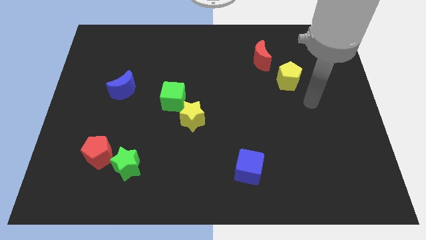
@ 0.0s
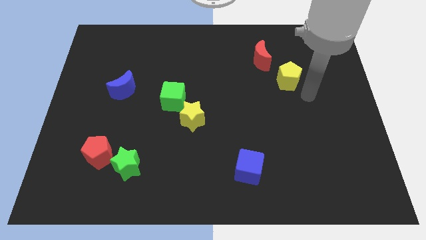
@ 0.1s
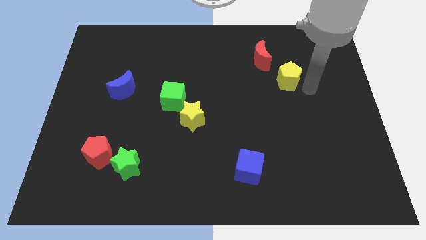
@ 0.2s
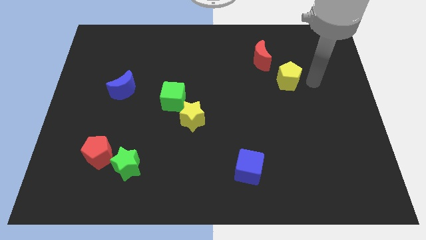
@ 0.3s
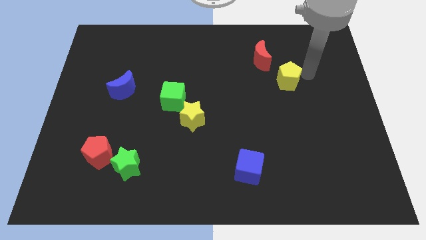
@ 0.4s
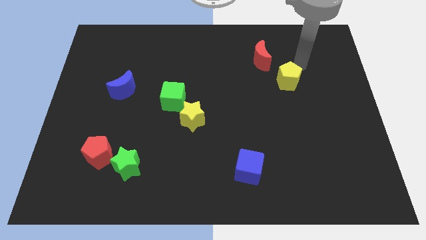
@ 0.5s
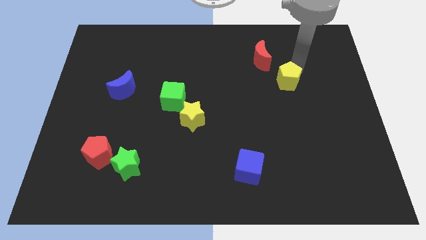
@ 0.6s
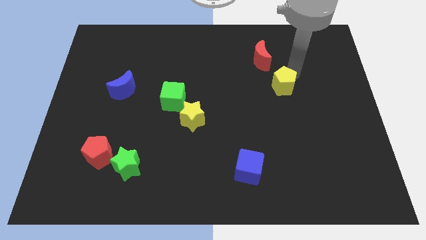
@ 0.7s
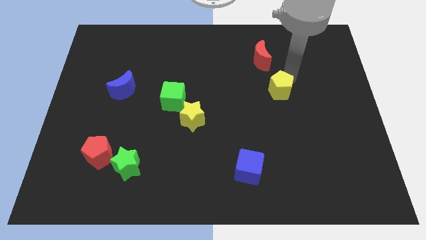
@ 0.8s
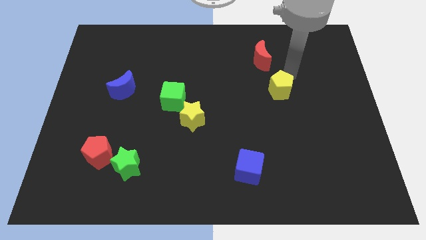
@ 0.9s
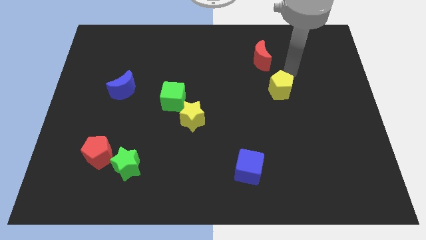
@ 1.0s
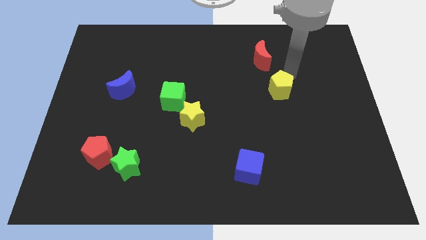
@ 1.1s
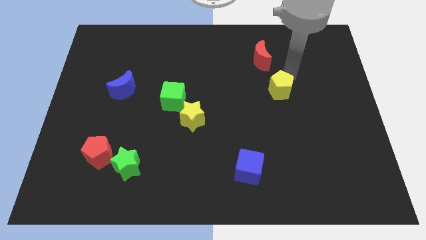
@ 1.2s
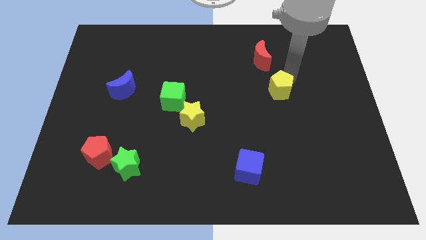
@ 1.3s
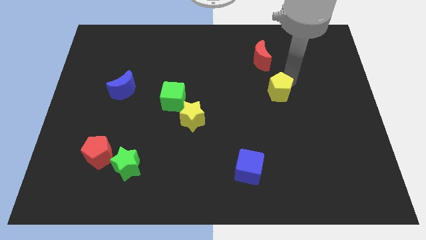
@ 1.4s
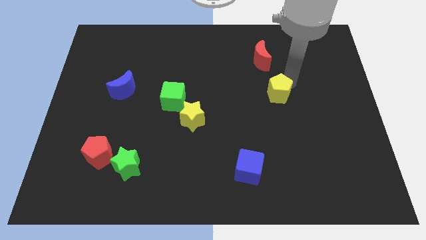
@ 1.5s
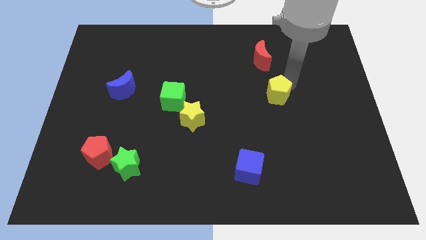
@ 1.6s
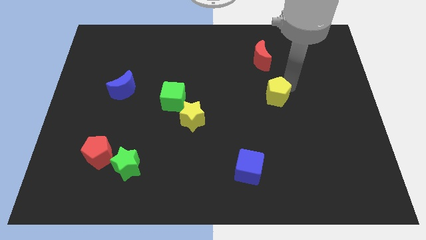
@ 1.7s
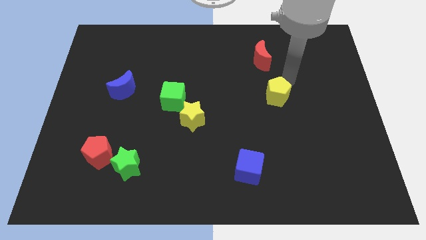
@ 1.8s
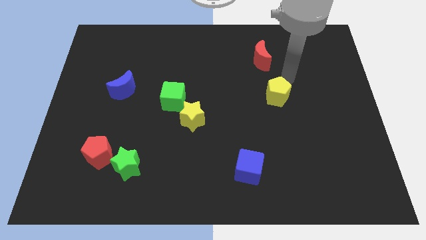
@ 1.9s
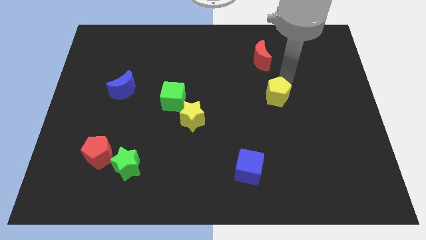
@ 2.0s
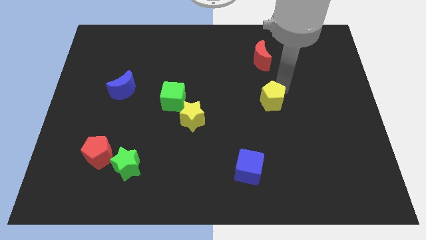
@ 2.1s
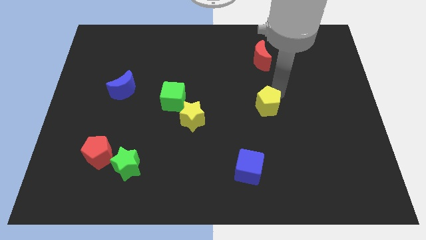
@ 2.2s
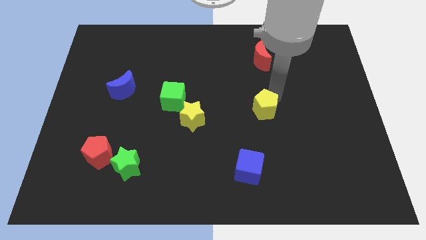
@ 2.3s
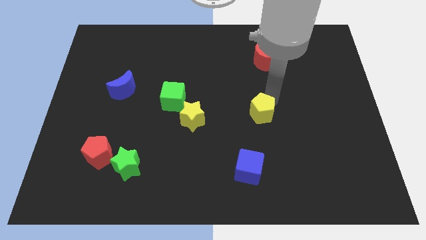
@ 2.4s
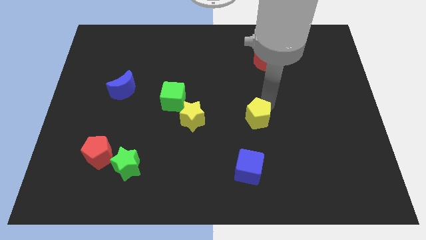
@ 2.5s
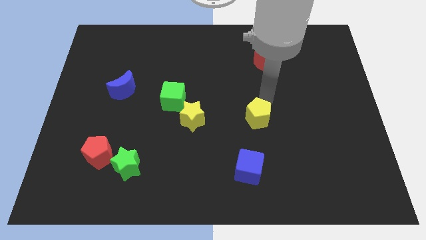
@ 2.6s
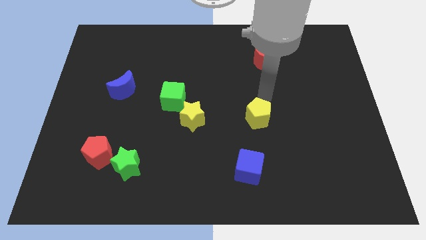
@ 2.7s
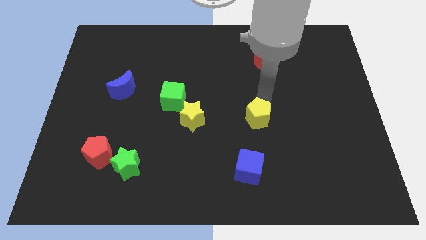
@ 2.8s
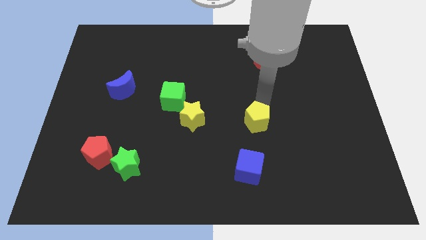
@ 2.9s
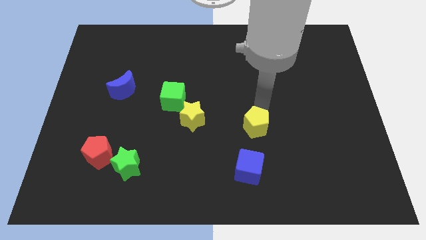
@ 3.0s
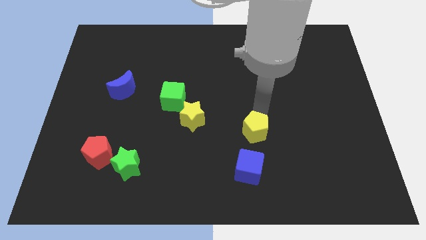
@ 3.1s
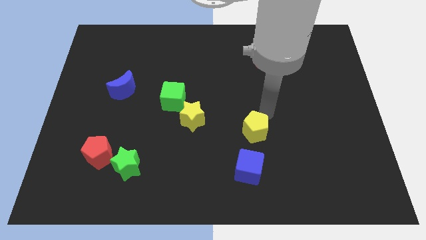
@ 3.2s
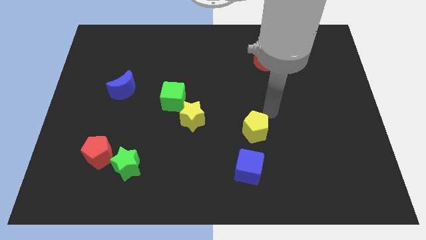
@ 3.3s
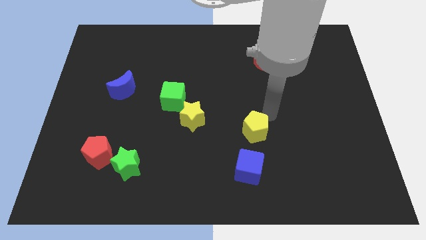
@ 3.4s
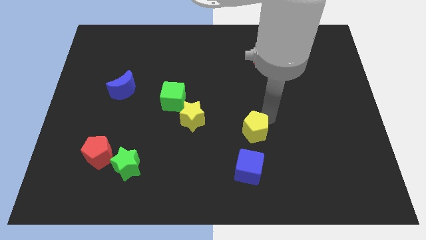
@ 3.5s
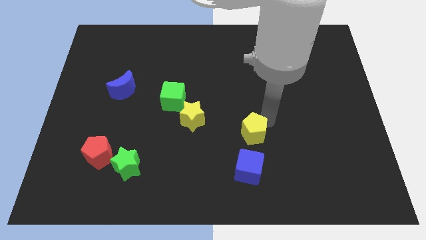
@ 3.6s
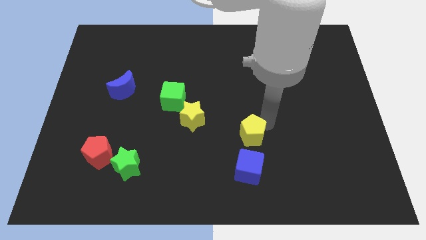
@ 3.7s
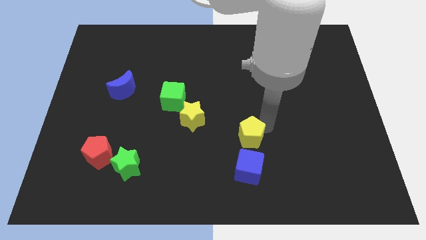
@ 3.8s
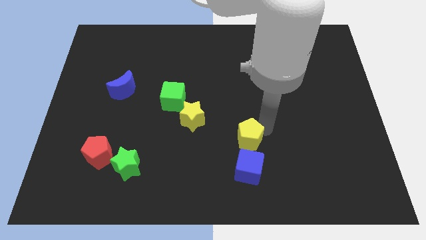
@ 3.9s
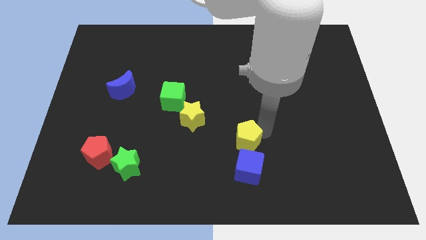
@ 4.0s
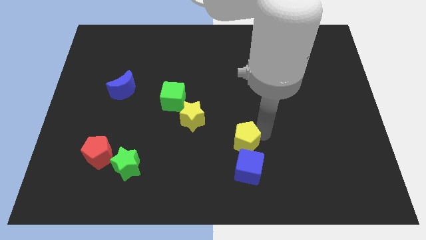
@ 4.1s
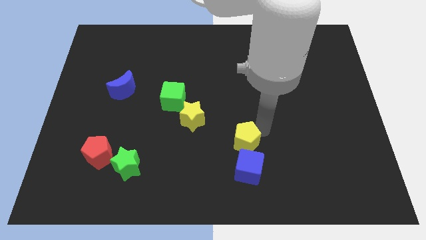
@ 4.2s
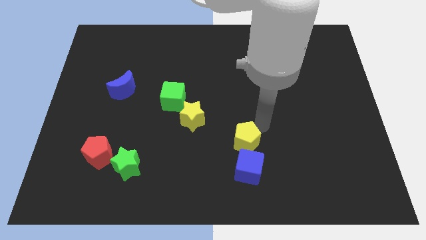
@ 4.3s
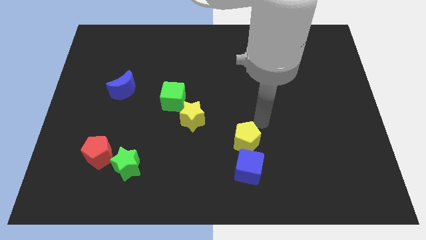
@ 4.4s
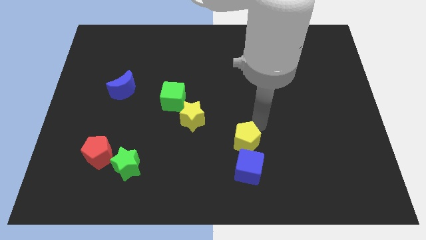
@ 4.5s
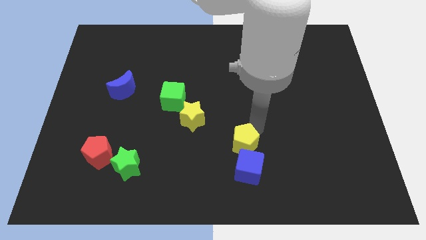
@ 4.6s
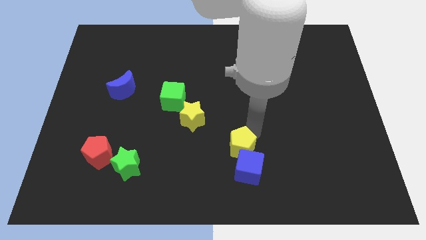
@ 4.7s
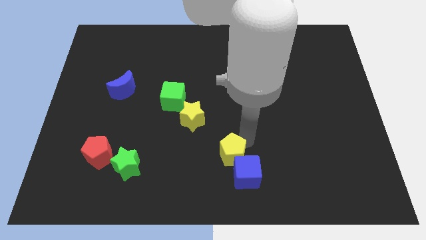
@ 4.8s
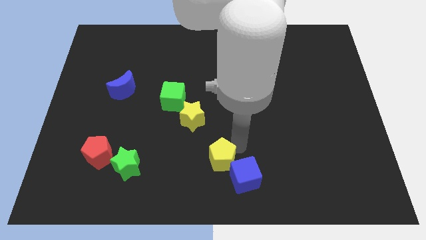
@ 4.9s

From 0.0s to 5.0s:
slide the yellow pentagon to the bottom side

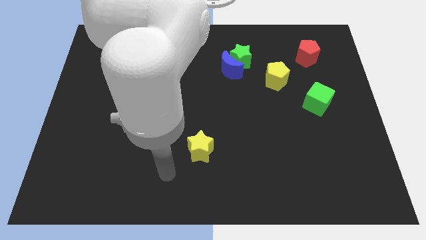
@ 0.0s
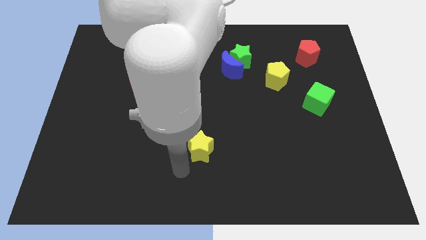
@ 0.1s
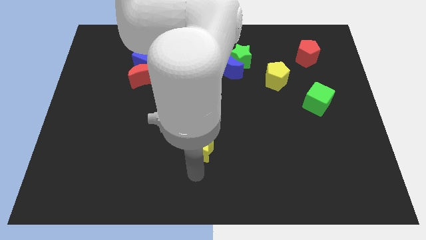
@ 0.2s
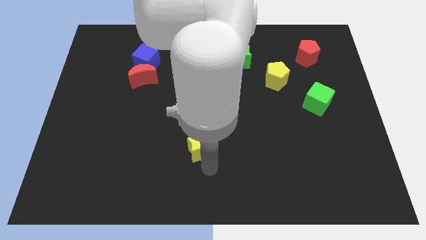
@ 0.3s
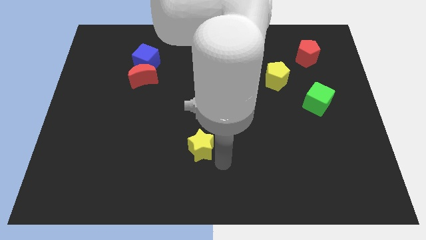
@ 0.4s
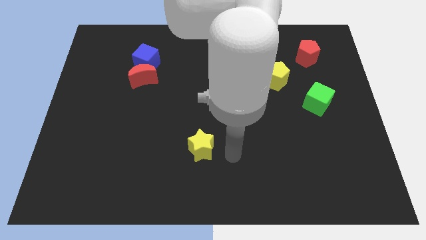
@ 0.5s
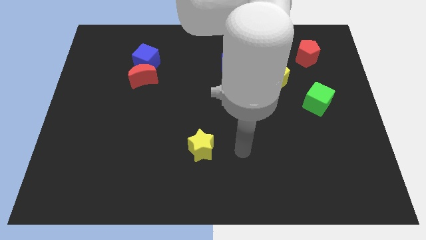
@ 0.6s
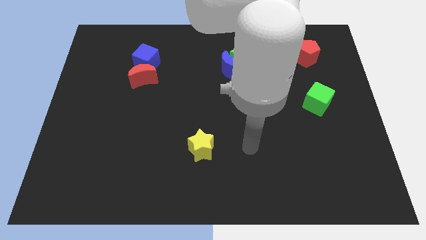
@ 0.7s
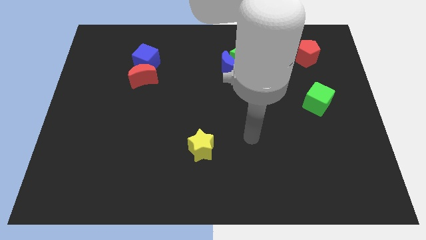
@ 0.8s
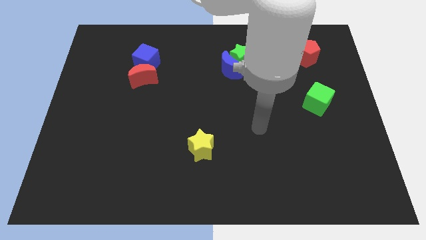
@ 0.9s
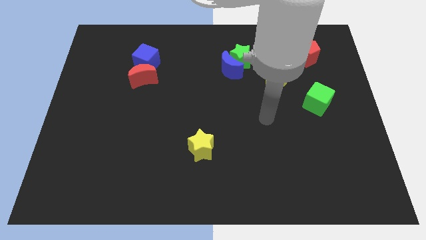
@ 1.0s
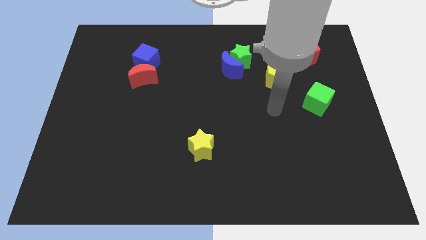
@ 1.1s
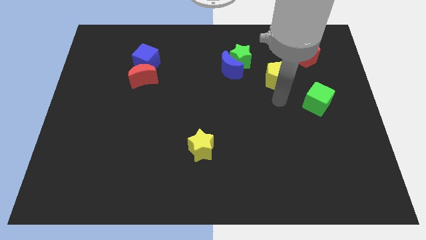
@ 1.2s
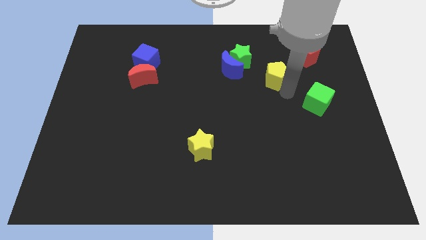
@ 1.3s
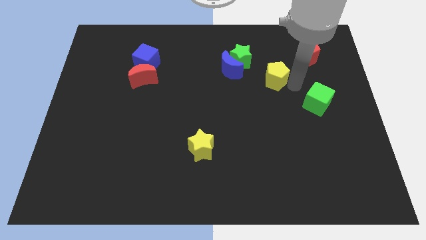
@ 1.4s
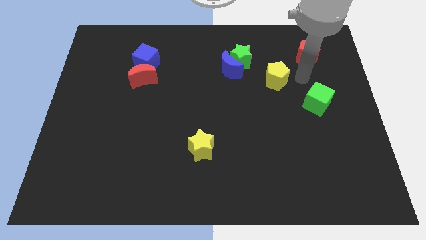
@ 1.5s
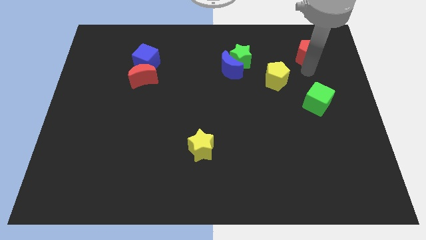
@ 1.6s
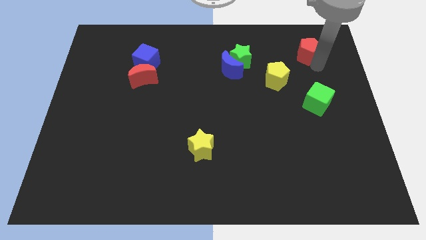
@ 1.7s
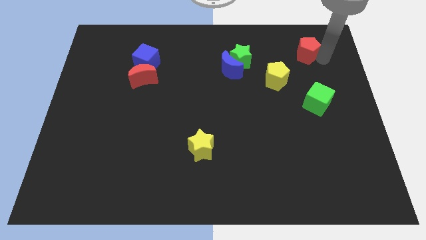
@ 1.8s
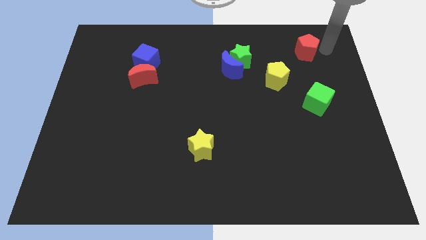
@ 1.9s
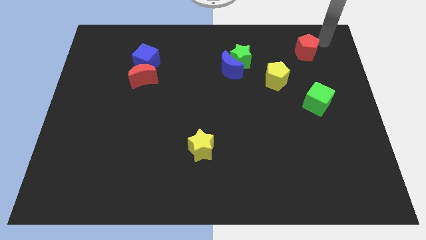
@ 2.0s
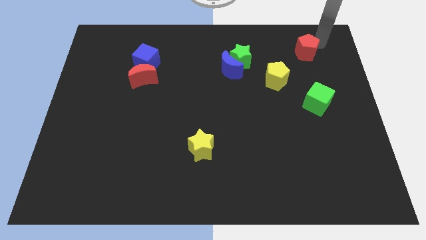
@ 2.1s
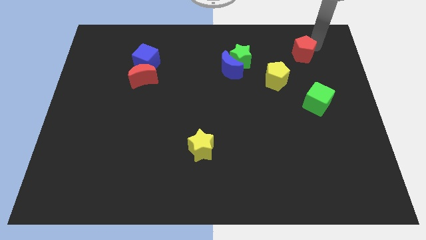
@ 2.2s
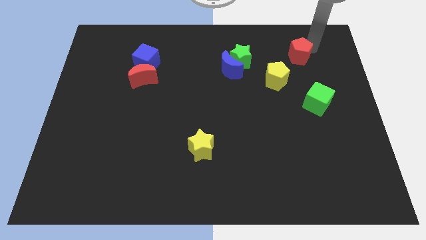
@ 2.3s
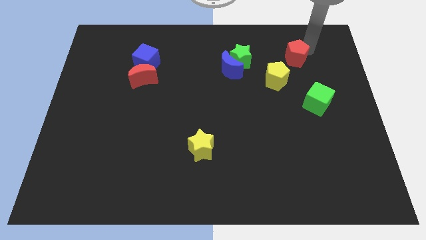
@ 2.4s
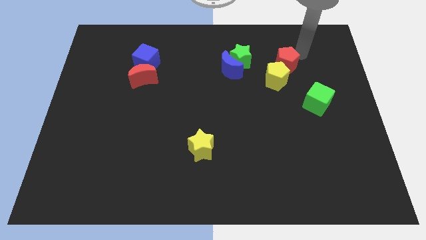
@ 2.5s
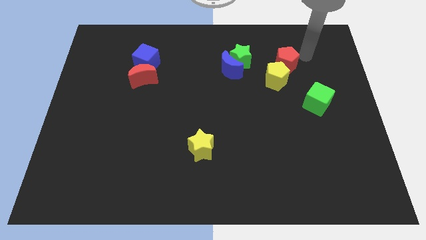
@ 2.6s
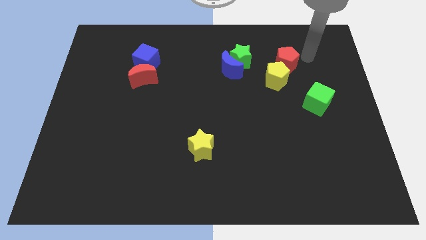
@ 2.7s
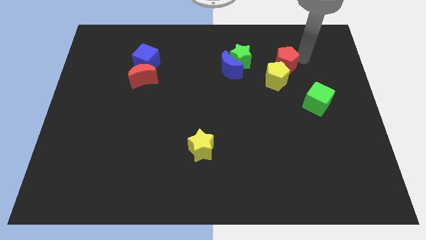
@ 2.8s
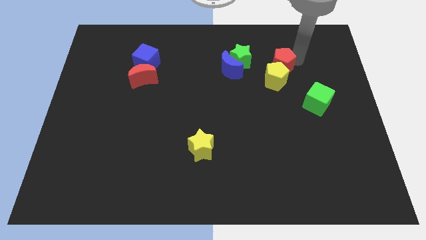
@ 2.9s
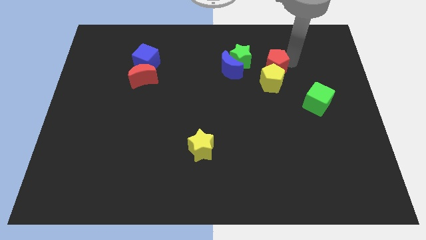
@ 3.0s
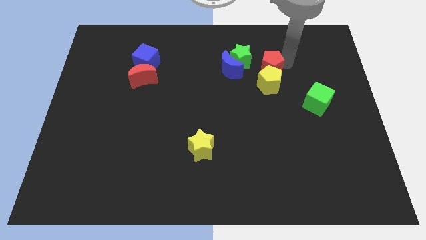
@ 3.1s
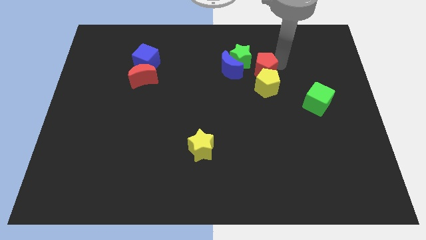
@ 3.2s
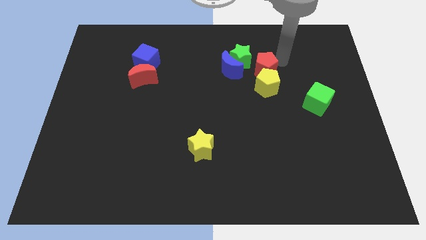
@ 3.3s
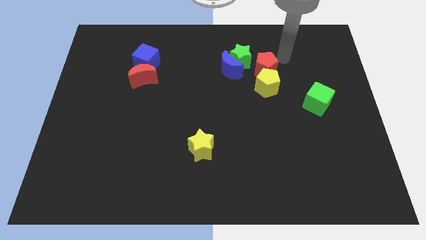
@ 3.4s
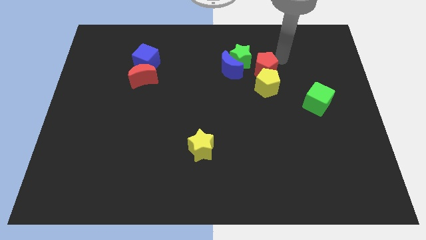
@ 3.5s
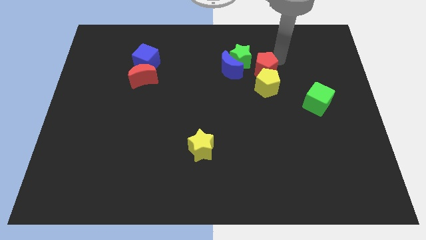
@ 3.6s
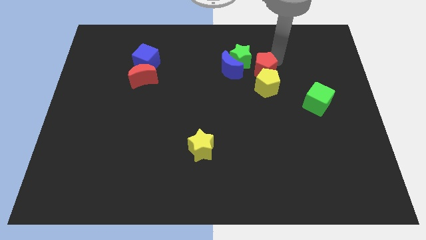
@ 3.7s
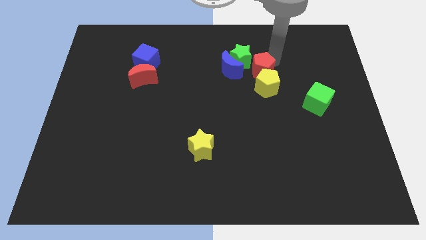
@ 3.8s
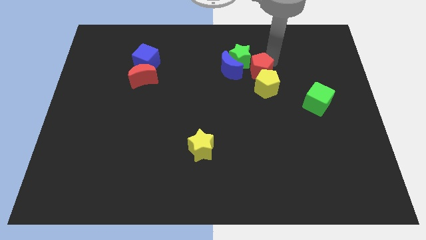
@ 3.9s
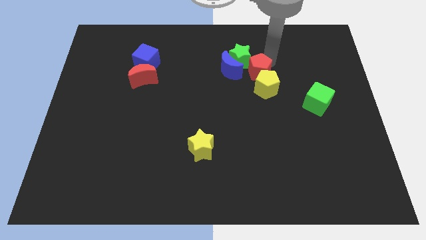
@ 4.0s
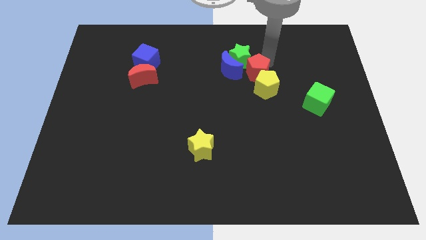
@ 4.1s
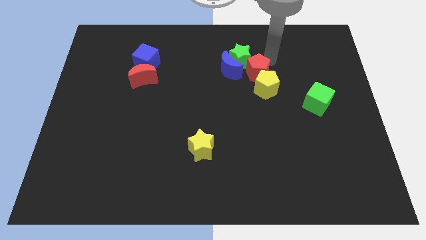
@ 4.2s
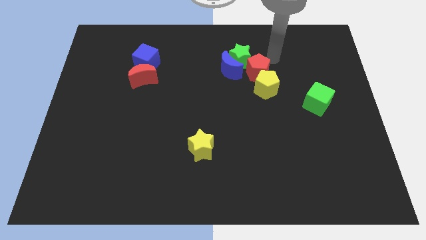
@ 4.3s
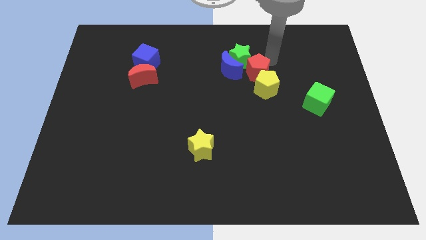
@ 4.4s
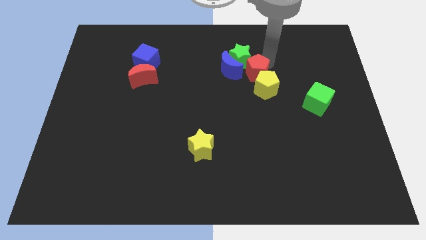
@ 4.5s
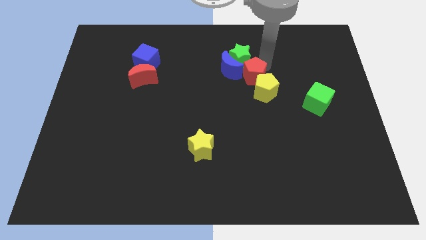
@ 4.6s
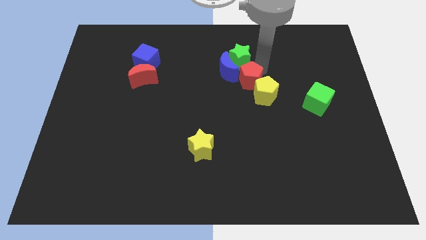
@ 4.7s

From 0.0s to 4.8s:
move the red pentagon to the center
